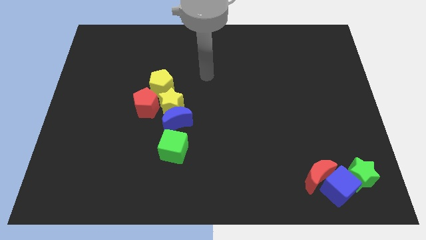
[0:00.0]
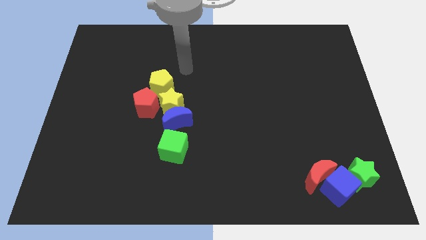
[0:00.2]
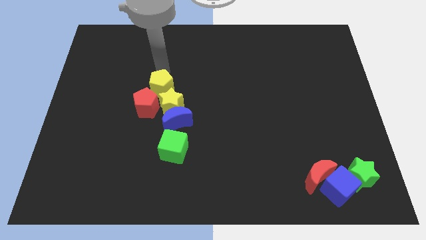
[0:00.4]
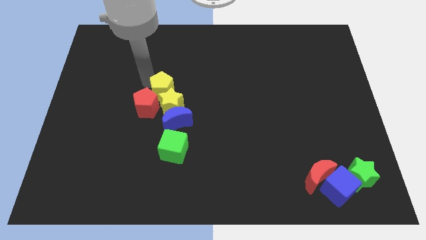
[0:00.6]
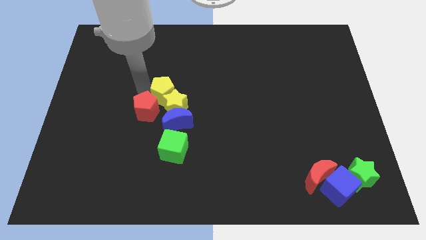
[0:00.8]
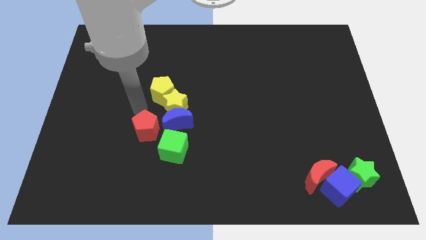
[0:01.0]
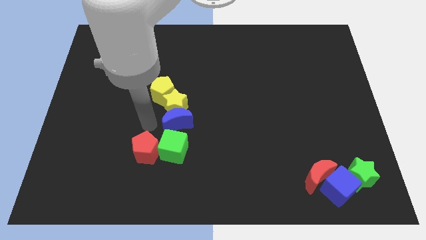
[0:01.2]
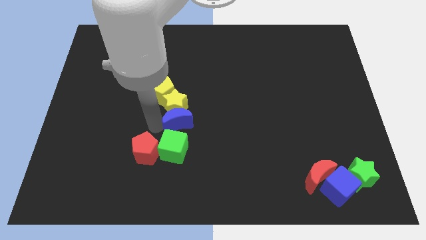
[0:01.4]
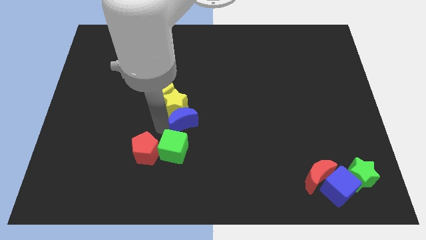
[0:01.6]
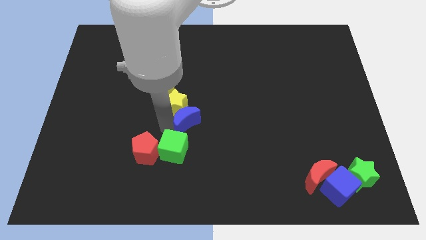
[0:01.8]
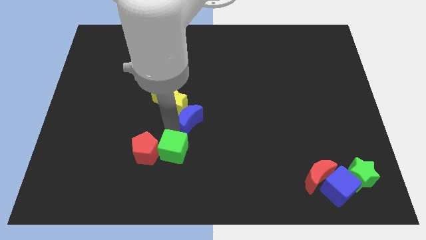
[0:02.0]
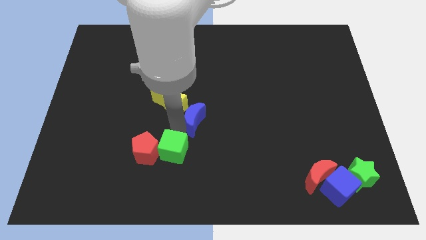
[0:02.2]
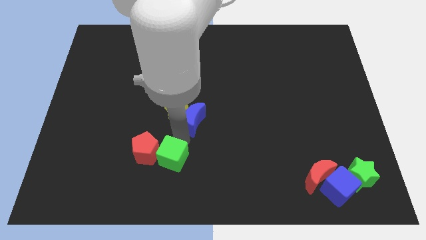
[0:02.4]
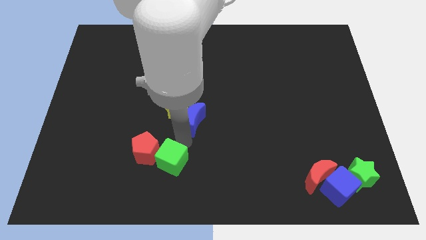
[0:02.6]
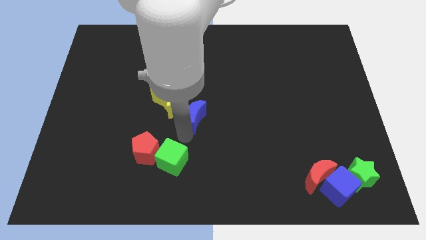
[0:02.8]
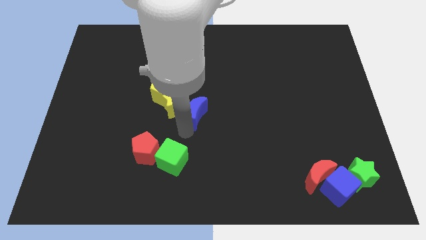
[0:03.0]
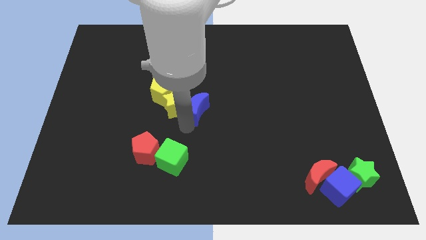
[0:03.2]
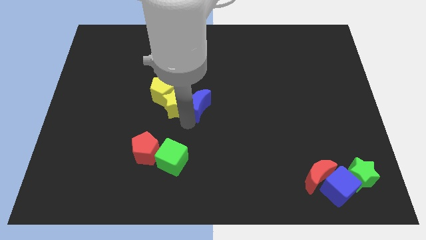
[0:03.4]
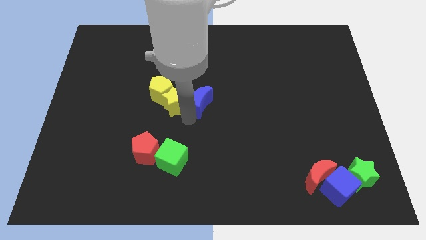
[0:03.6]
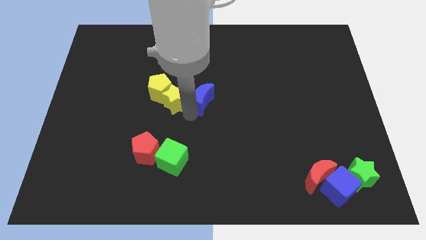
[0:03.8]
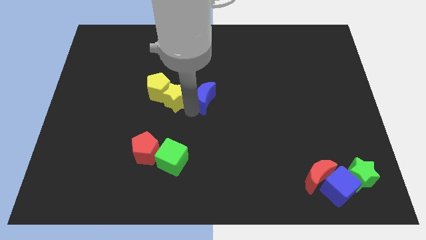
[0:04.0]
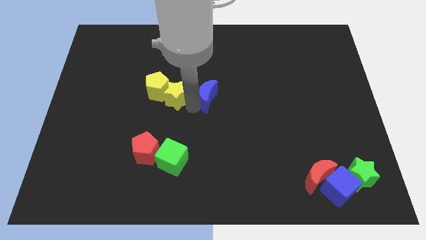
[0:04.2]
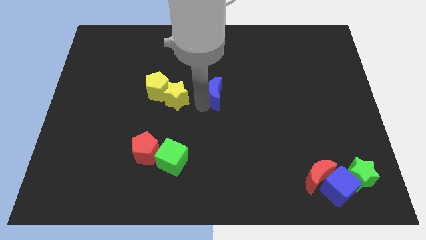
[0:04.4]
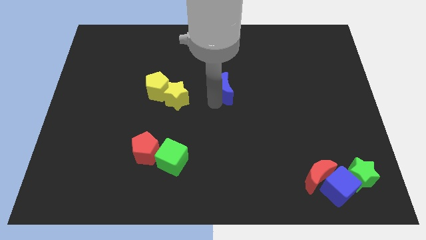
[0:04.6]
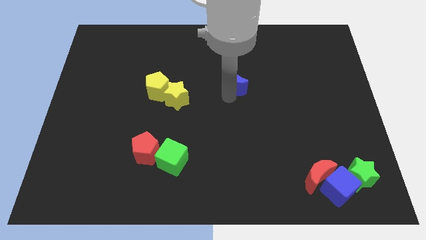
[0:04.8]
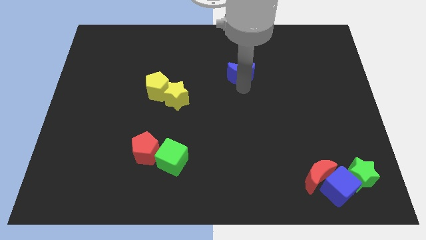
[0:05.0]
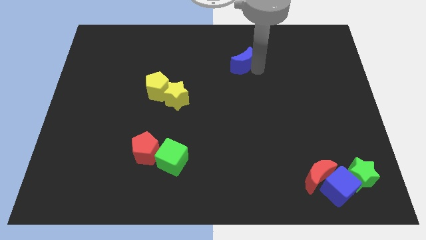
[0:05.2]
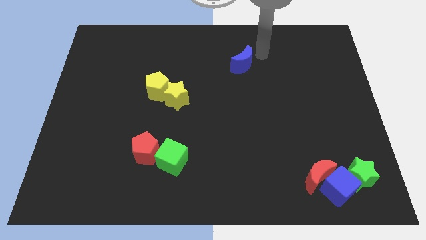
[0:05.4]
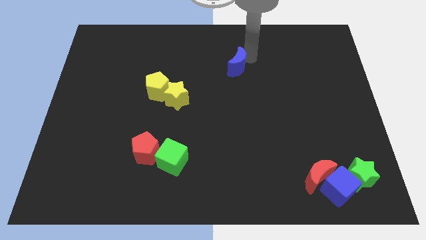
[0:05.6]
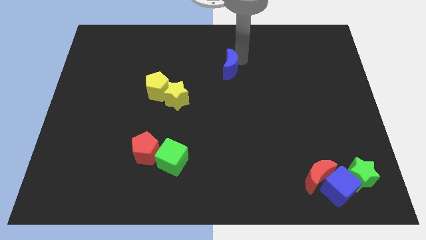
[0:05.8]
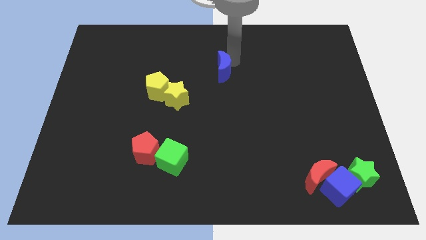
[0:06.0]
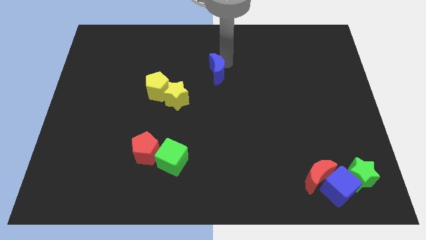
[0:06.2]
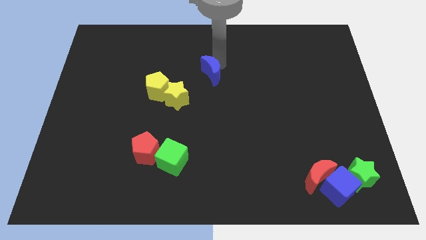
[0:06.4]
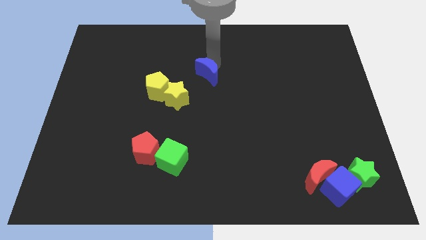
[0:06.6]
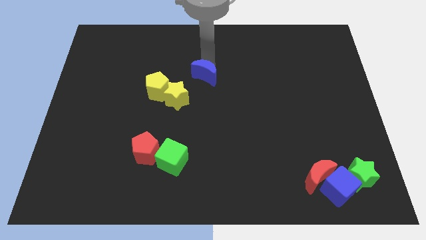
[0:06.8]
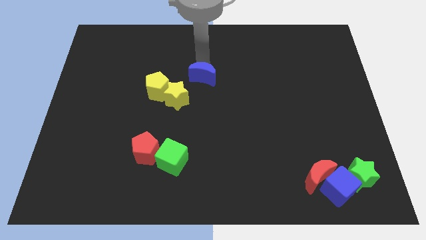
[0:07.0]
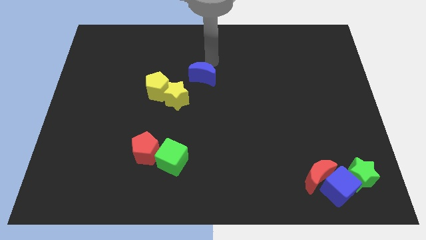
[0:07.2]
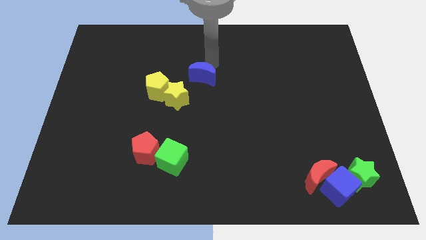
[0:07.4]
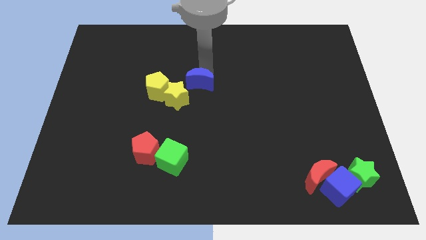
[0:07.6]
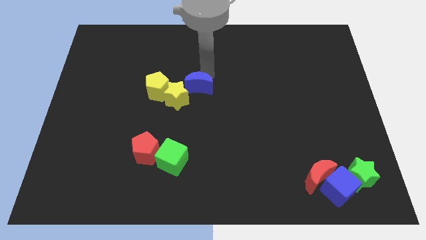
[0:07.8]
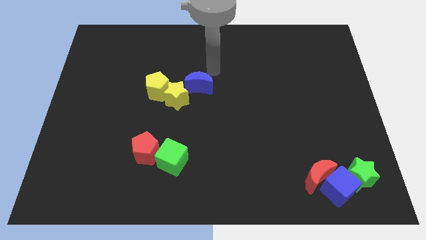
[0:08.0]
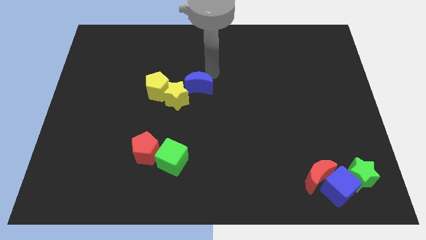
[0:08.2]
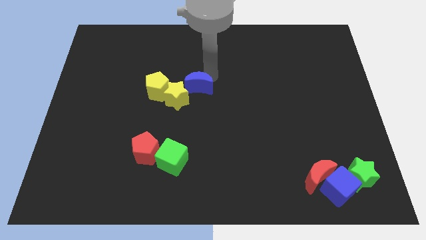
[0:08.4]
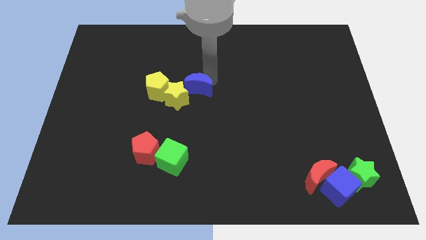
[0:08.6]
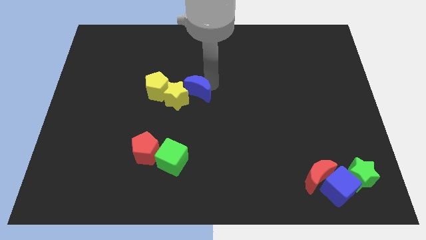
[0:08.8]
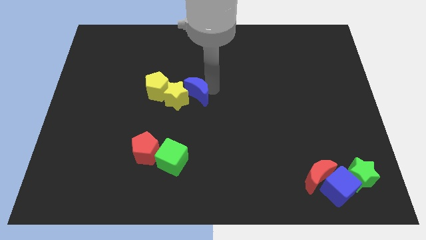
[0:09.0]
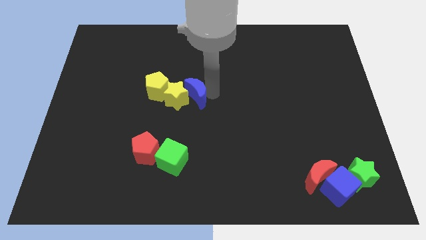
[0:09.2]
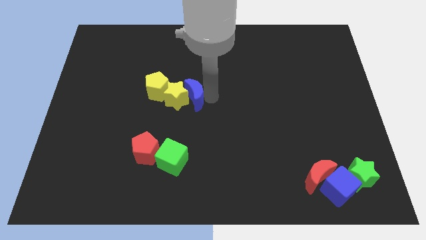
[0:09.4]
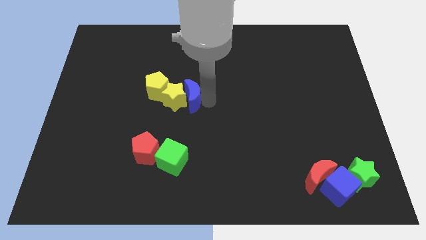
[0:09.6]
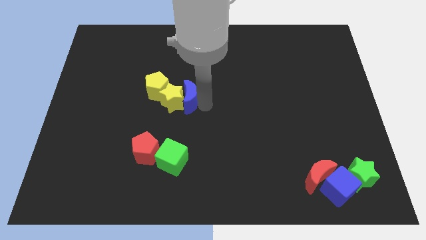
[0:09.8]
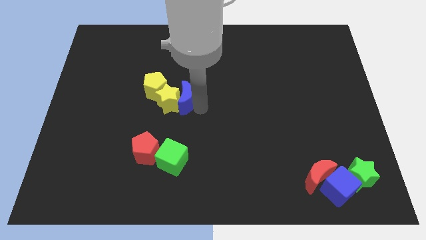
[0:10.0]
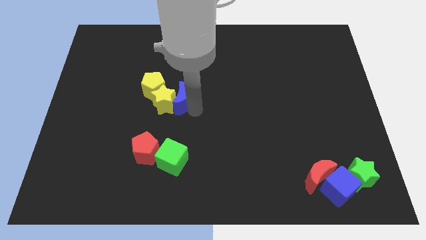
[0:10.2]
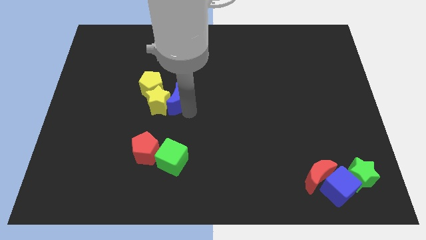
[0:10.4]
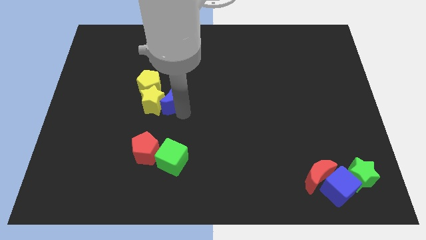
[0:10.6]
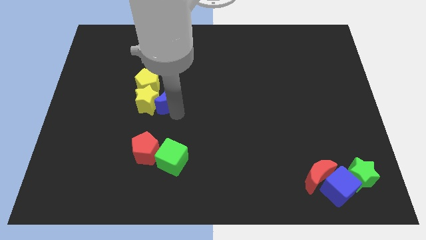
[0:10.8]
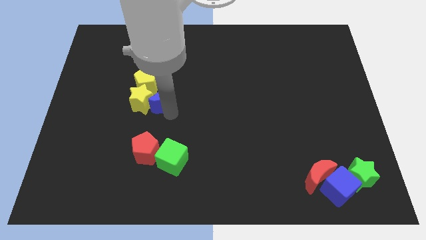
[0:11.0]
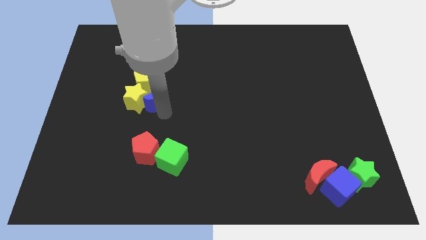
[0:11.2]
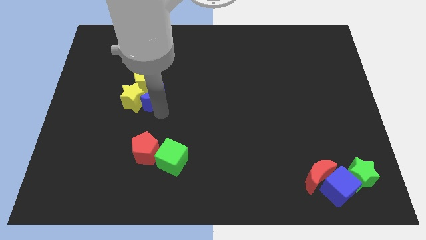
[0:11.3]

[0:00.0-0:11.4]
put the blue moon next to the yellow pentagon

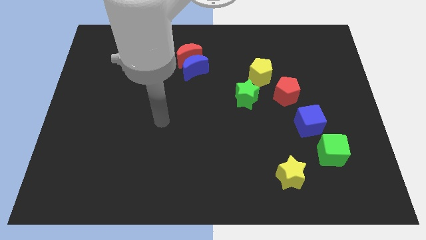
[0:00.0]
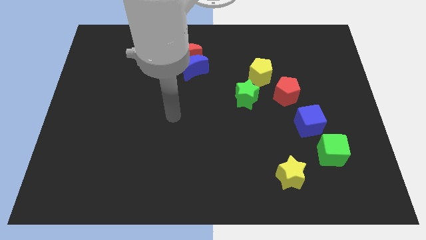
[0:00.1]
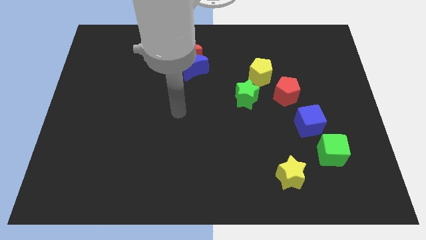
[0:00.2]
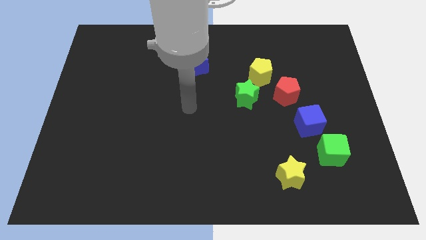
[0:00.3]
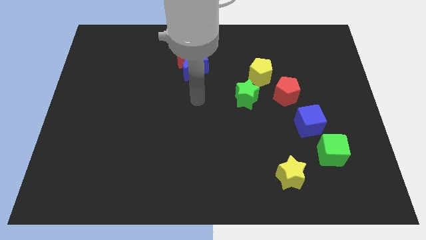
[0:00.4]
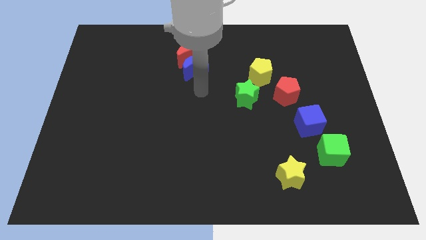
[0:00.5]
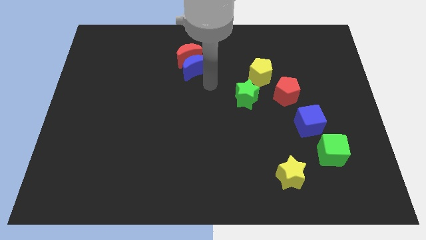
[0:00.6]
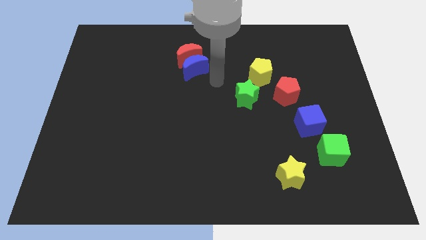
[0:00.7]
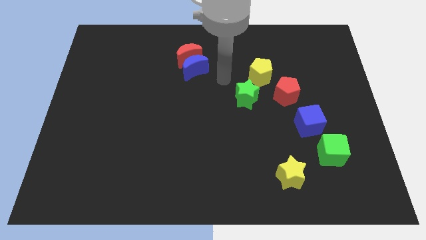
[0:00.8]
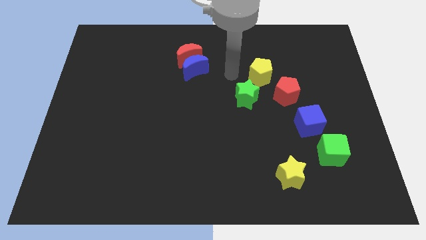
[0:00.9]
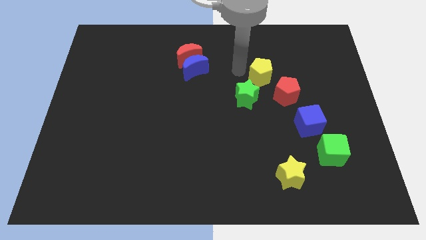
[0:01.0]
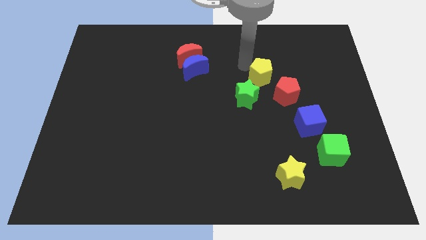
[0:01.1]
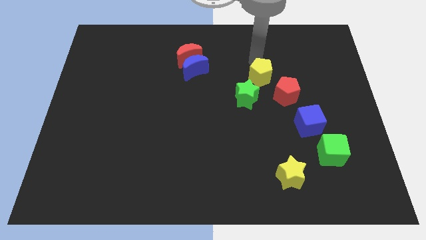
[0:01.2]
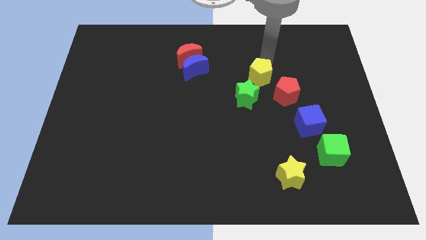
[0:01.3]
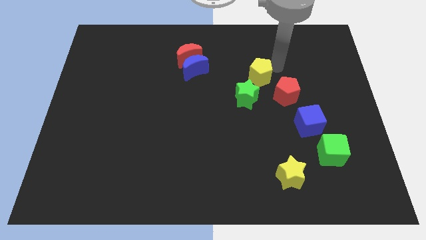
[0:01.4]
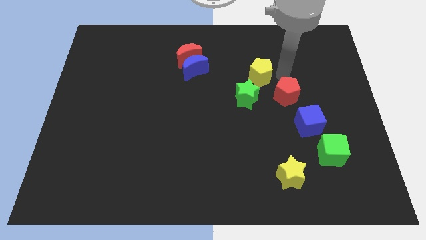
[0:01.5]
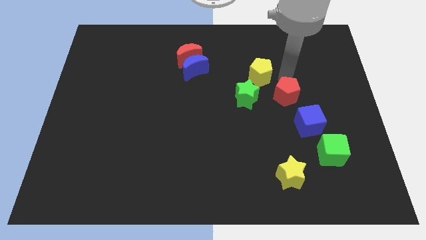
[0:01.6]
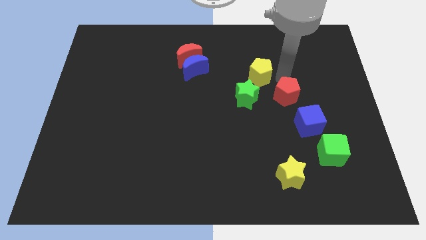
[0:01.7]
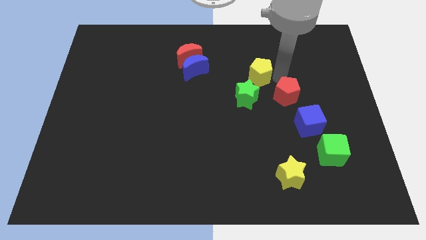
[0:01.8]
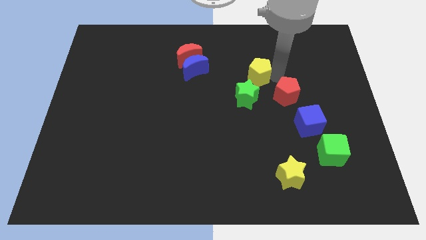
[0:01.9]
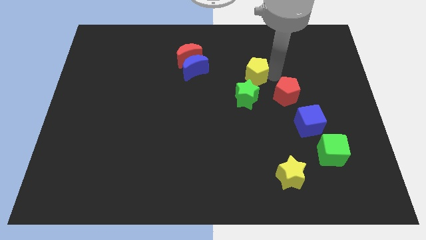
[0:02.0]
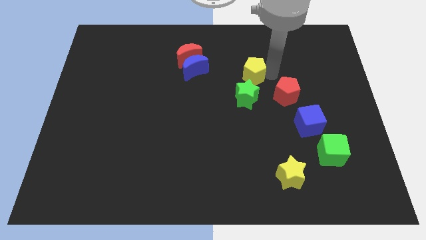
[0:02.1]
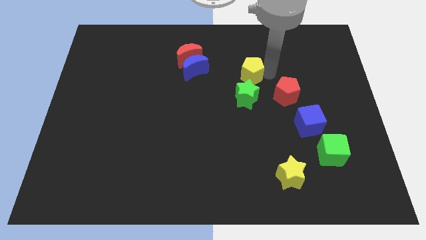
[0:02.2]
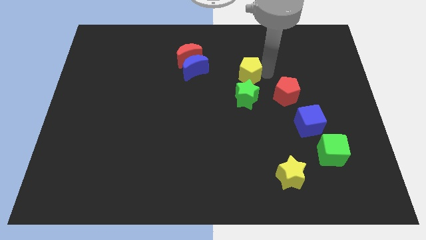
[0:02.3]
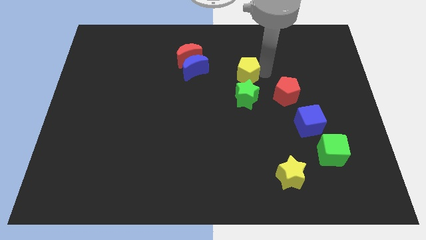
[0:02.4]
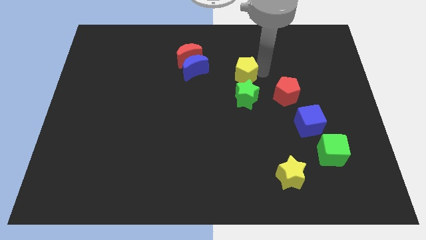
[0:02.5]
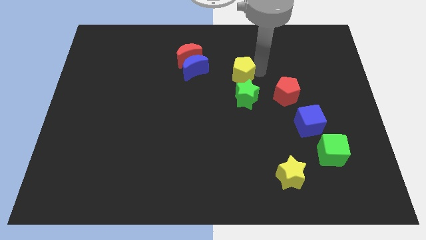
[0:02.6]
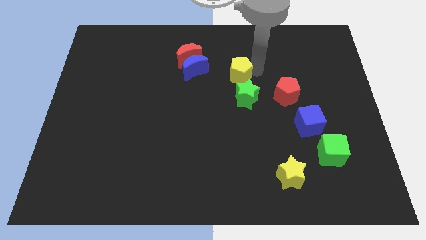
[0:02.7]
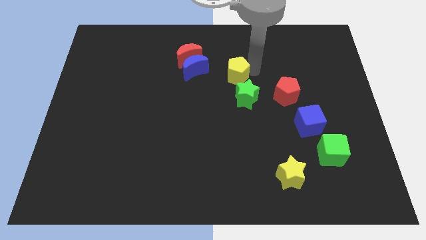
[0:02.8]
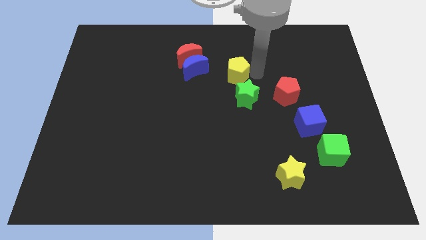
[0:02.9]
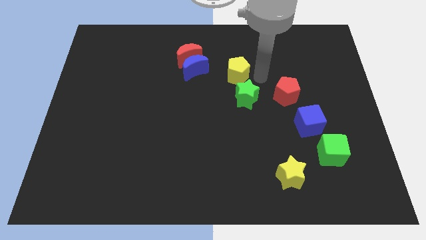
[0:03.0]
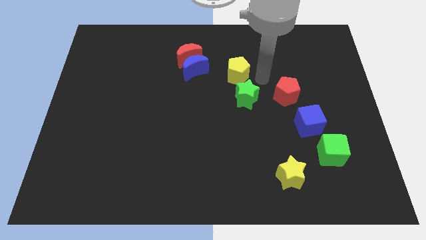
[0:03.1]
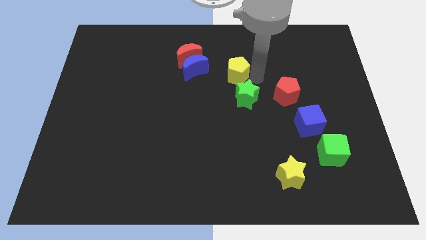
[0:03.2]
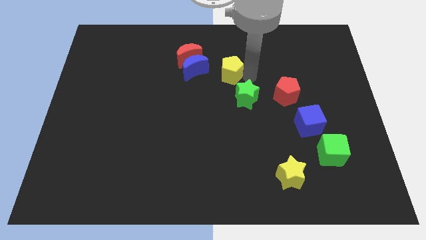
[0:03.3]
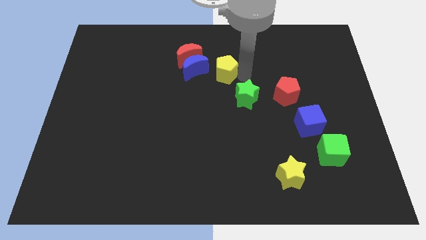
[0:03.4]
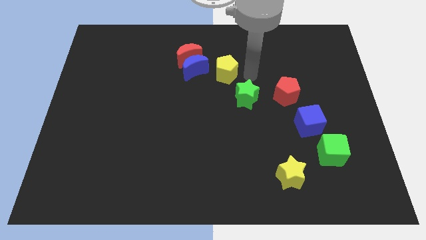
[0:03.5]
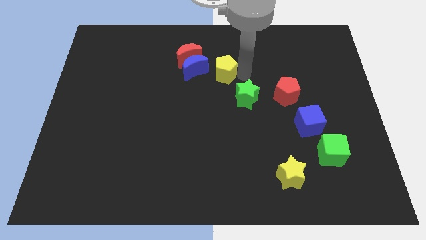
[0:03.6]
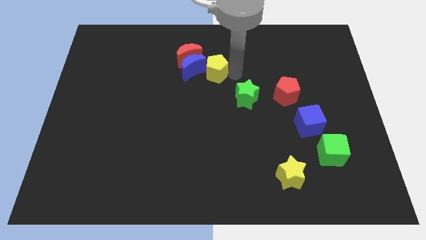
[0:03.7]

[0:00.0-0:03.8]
push the yellow pentagon to the blue moon
